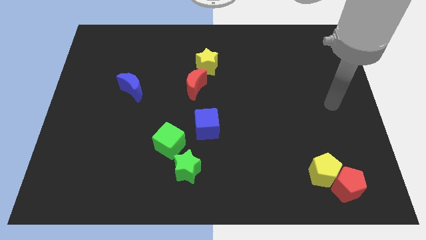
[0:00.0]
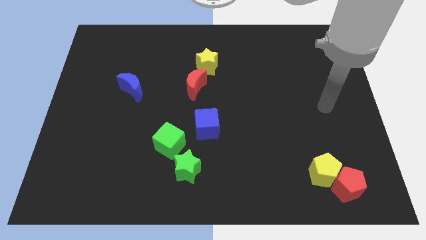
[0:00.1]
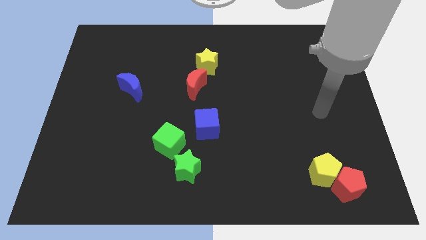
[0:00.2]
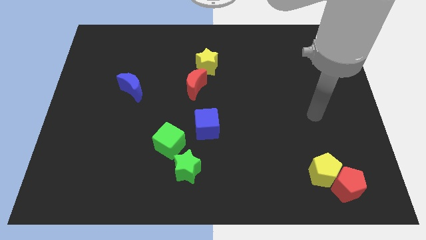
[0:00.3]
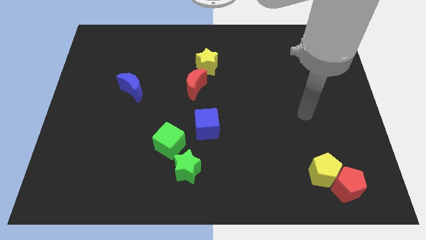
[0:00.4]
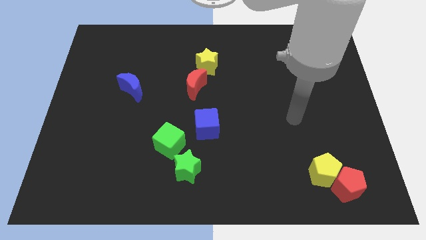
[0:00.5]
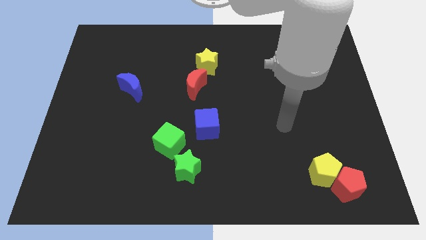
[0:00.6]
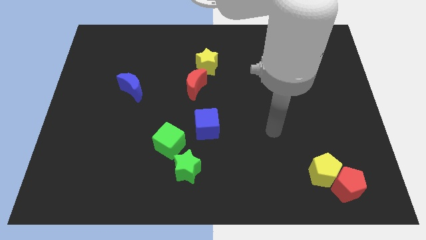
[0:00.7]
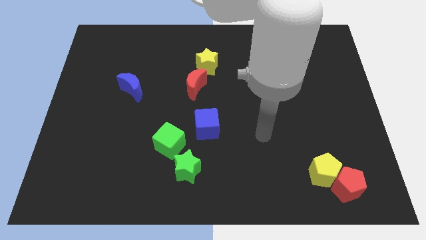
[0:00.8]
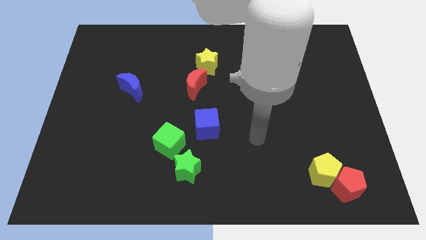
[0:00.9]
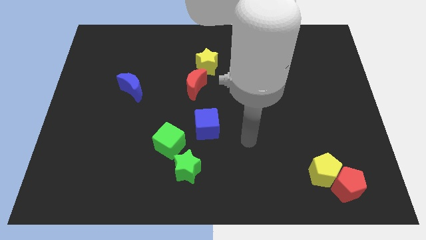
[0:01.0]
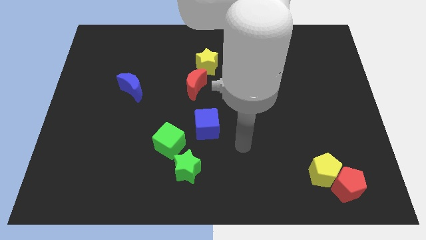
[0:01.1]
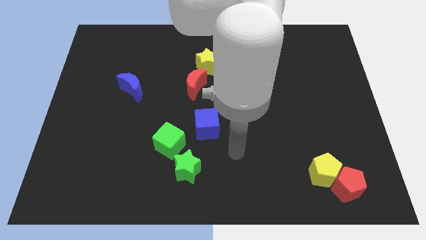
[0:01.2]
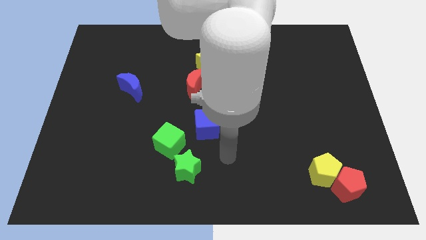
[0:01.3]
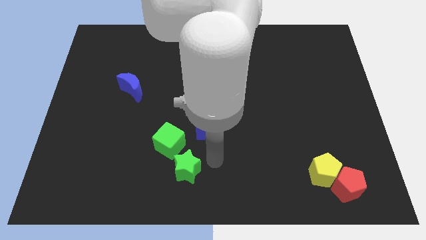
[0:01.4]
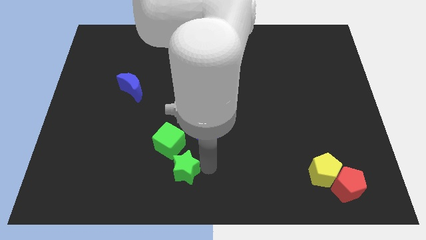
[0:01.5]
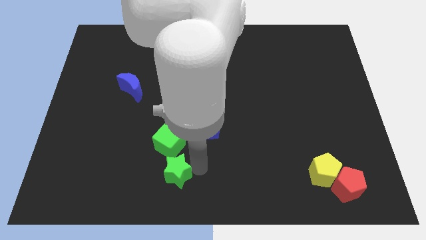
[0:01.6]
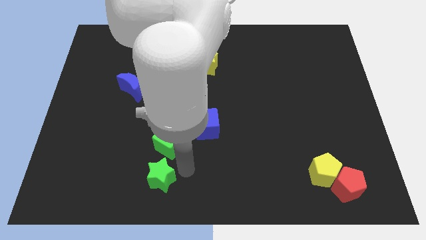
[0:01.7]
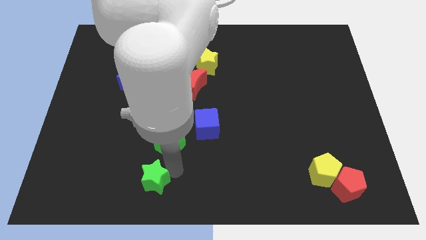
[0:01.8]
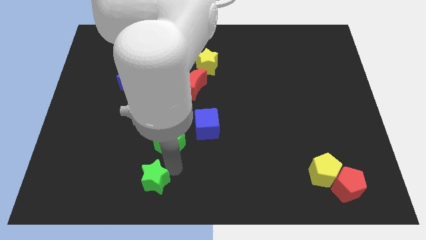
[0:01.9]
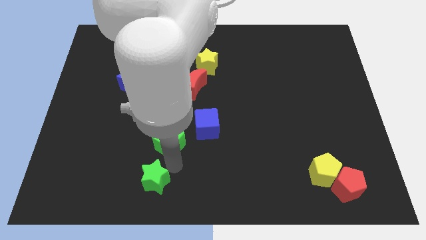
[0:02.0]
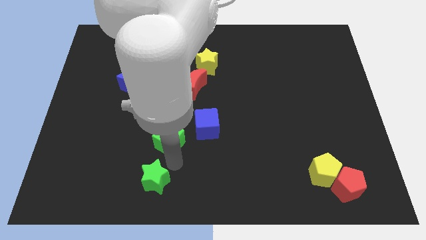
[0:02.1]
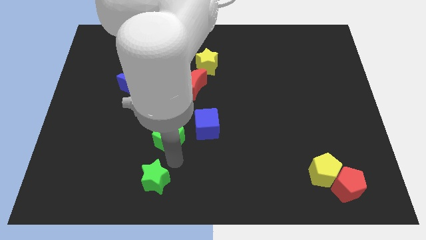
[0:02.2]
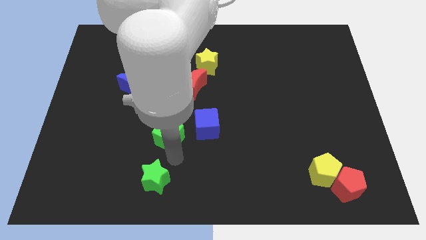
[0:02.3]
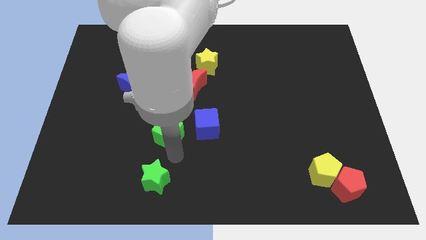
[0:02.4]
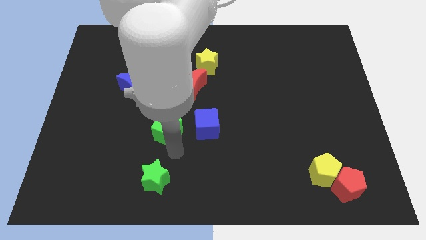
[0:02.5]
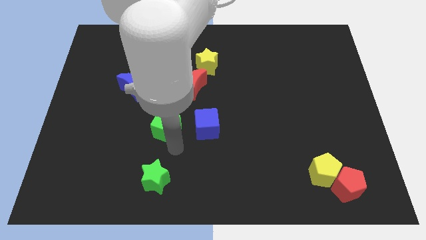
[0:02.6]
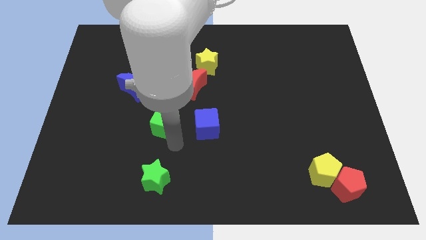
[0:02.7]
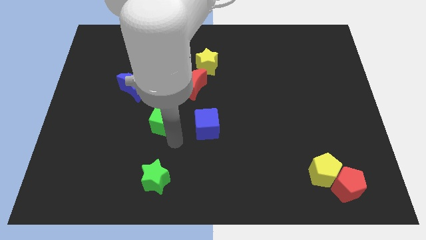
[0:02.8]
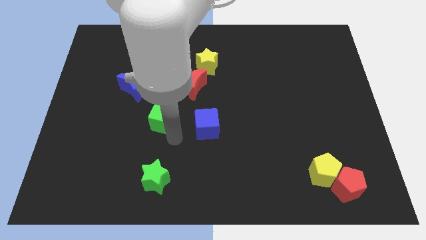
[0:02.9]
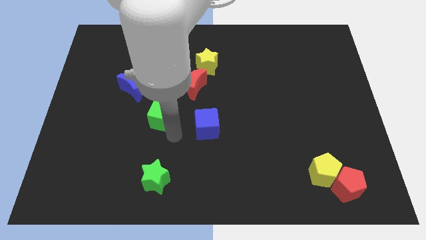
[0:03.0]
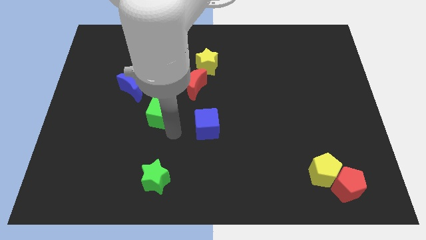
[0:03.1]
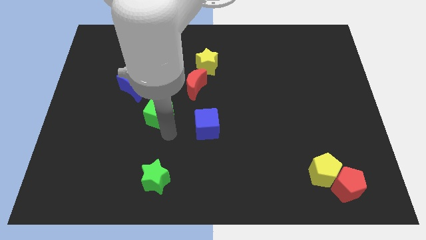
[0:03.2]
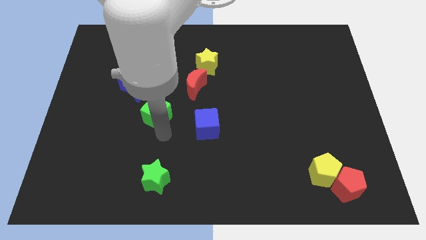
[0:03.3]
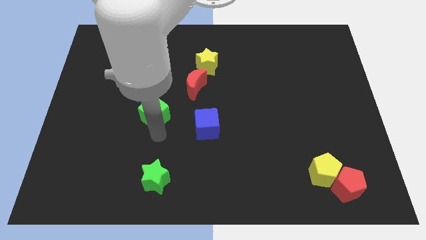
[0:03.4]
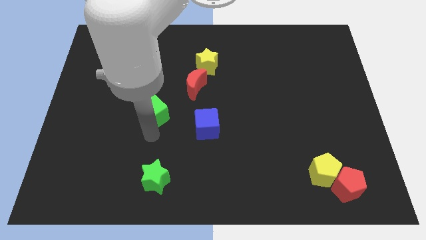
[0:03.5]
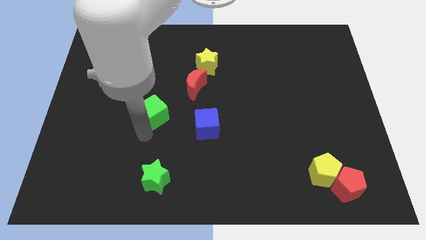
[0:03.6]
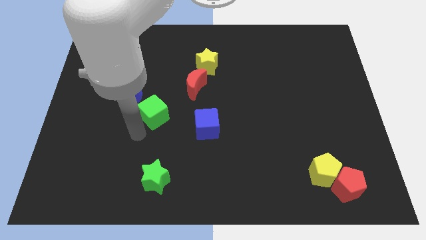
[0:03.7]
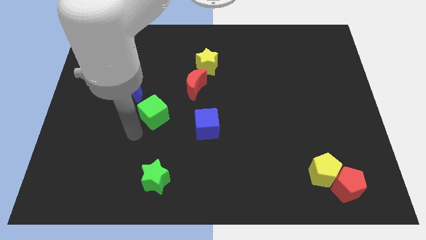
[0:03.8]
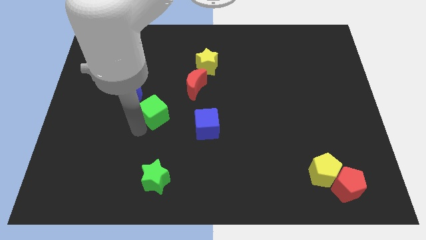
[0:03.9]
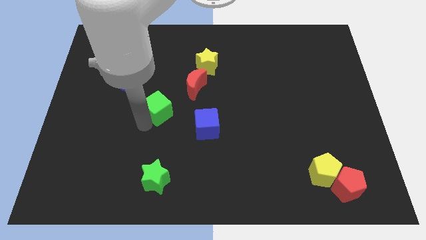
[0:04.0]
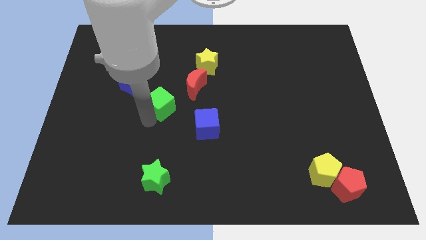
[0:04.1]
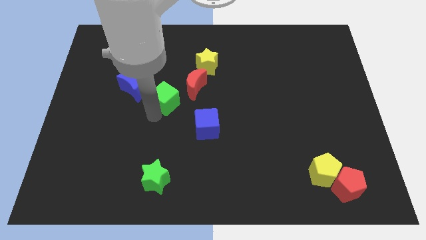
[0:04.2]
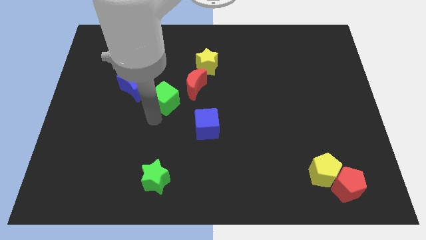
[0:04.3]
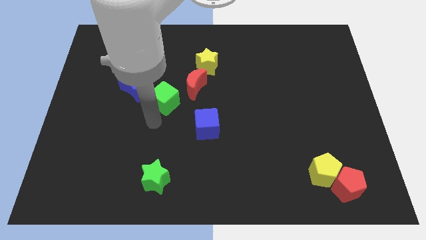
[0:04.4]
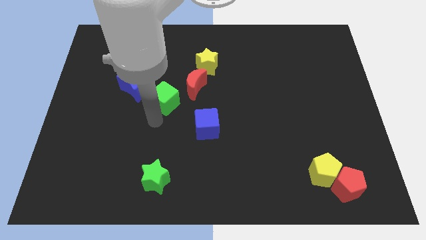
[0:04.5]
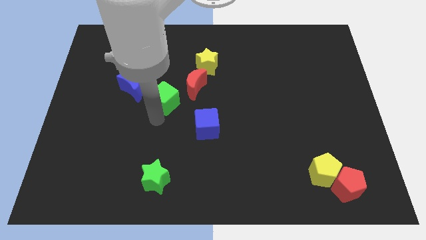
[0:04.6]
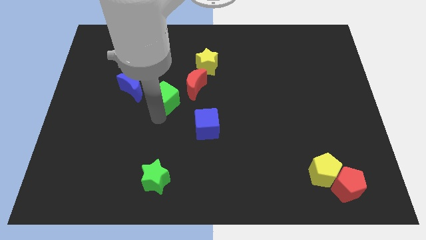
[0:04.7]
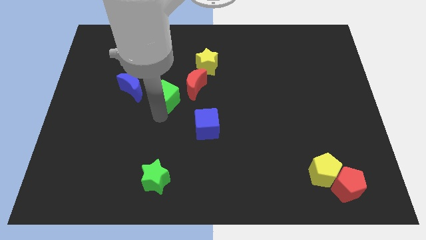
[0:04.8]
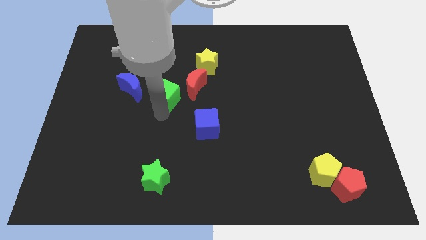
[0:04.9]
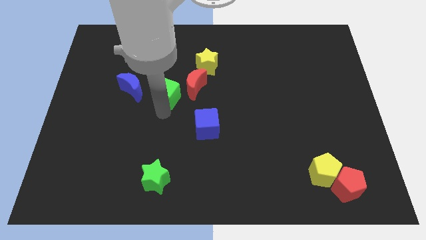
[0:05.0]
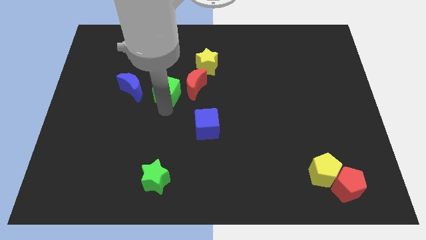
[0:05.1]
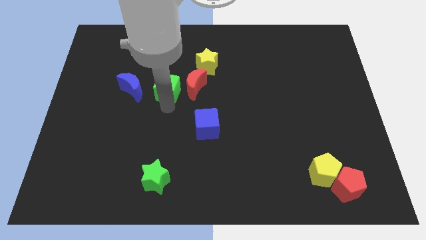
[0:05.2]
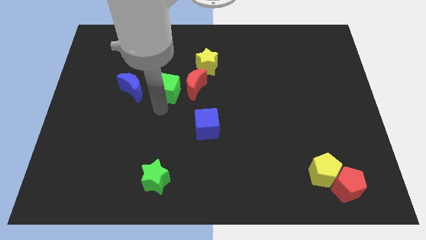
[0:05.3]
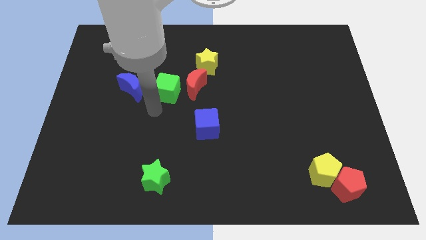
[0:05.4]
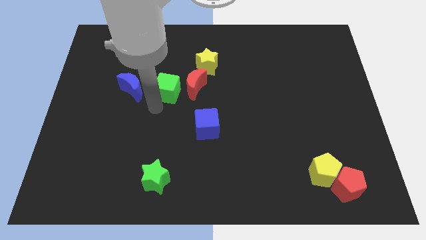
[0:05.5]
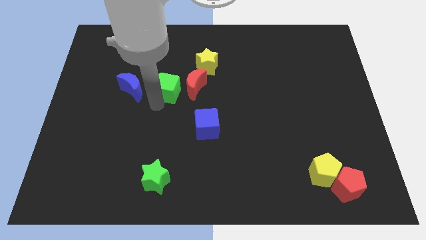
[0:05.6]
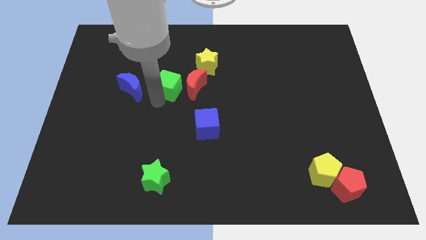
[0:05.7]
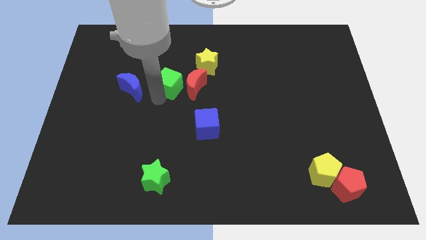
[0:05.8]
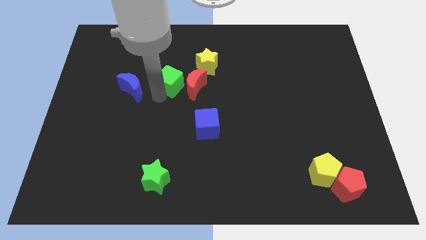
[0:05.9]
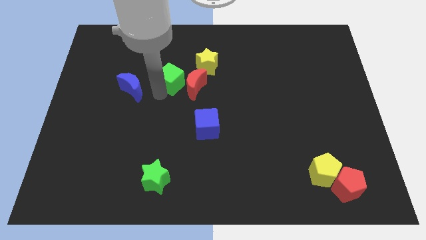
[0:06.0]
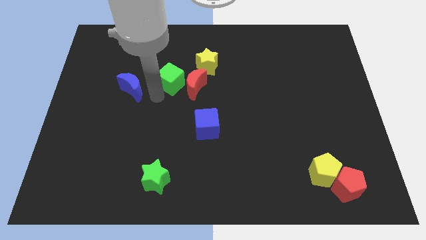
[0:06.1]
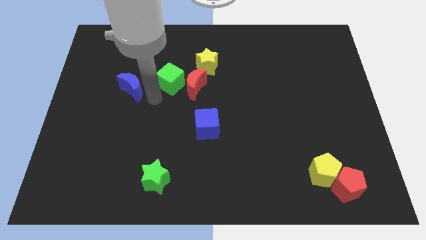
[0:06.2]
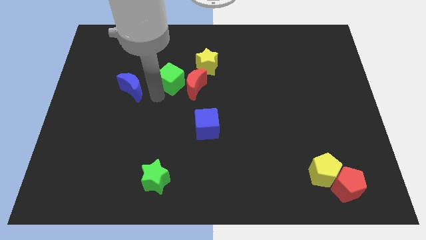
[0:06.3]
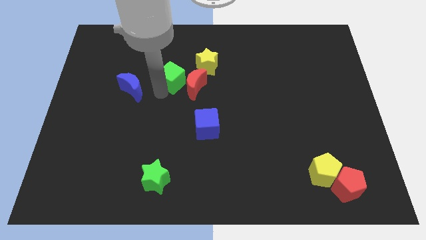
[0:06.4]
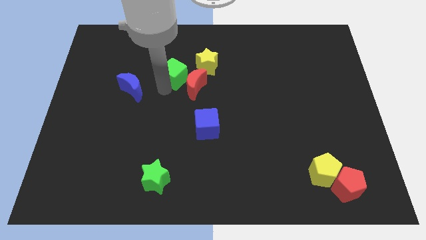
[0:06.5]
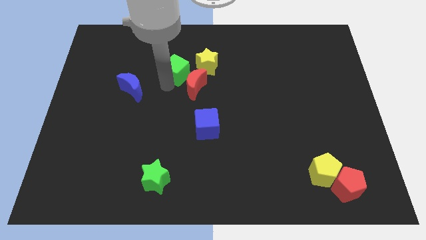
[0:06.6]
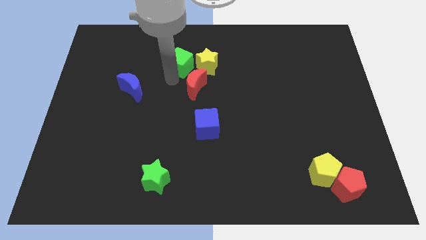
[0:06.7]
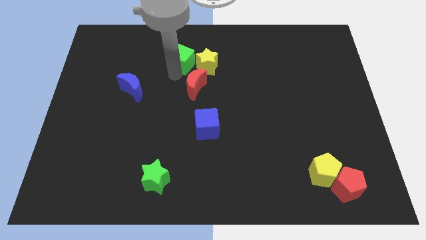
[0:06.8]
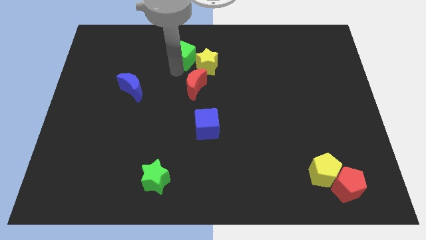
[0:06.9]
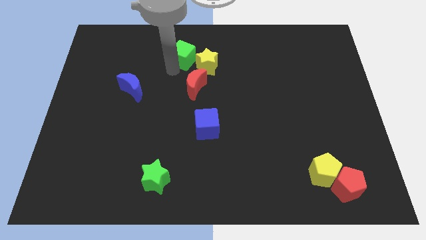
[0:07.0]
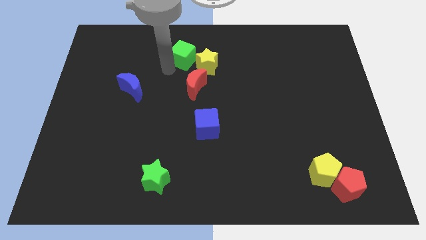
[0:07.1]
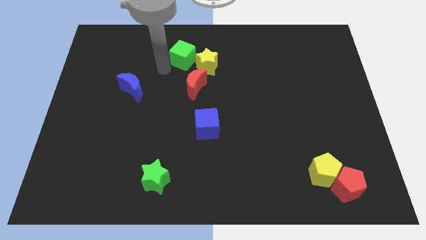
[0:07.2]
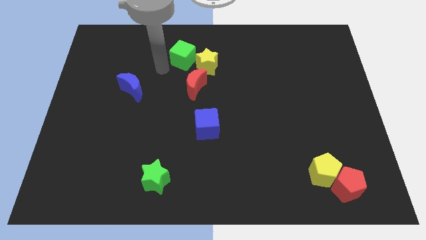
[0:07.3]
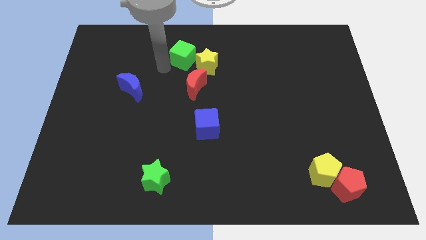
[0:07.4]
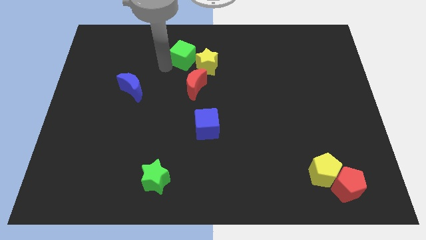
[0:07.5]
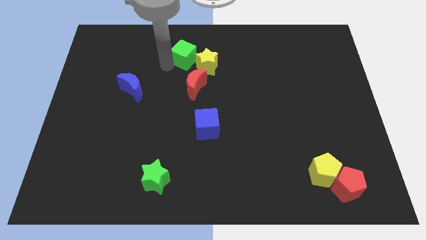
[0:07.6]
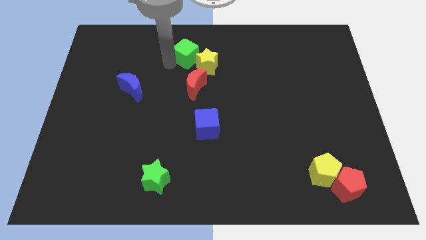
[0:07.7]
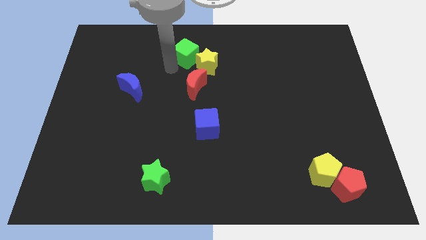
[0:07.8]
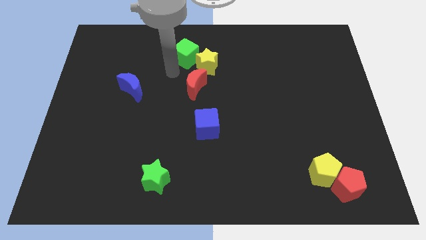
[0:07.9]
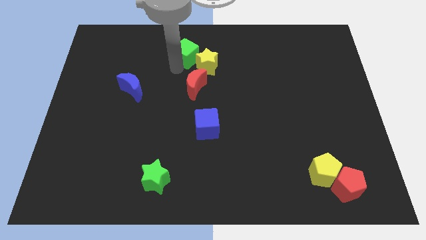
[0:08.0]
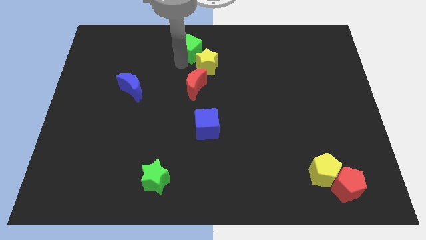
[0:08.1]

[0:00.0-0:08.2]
push the green cube to the towards your base
